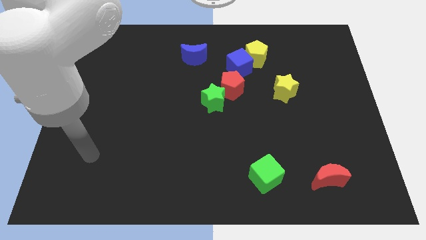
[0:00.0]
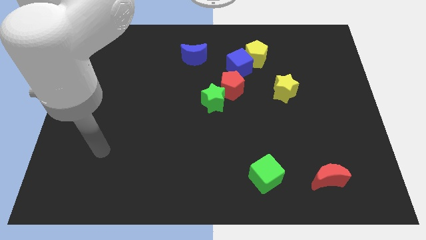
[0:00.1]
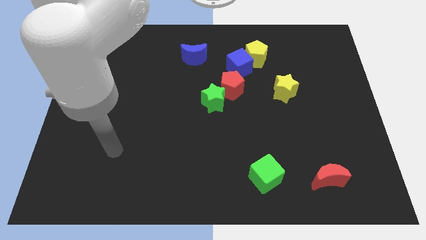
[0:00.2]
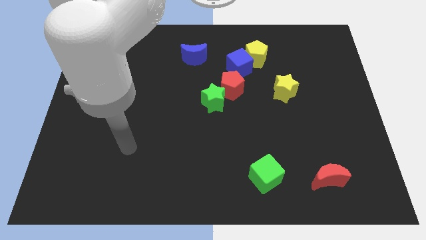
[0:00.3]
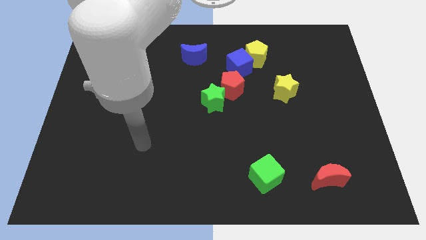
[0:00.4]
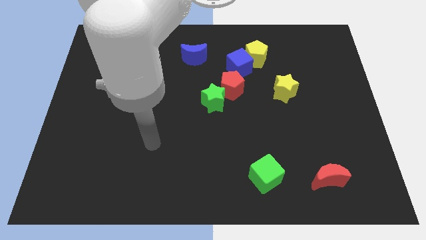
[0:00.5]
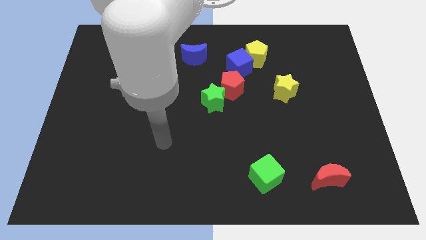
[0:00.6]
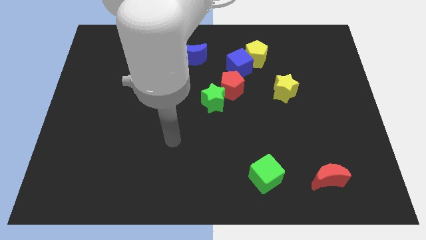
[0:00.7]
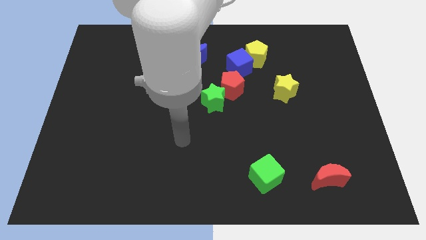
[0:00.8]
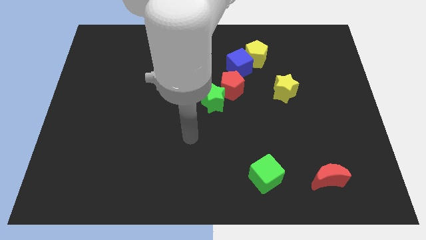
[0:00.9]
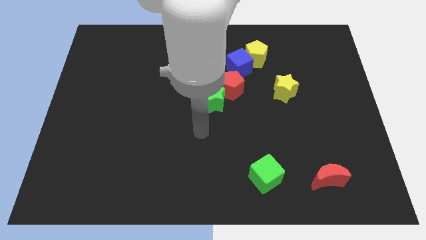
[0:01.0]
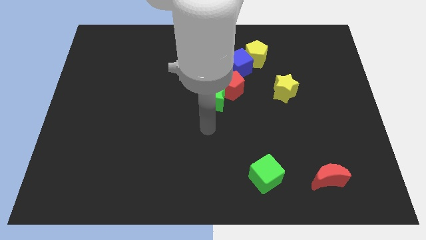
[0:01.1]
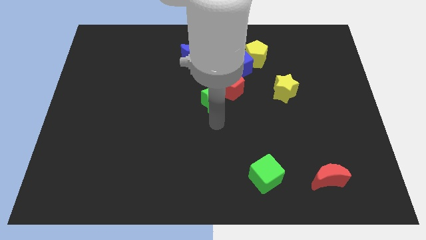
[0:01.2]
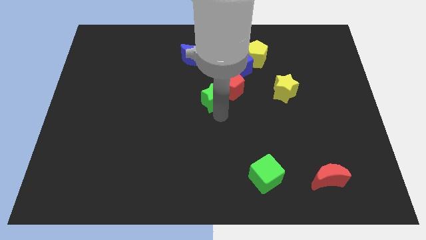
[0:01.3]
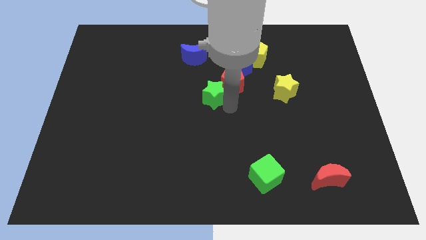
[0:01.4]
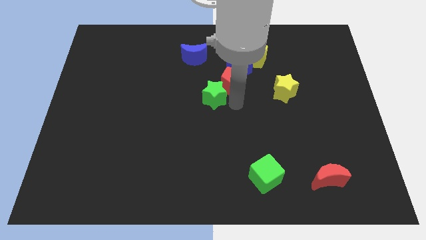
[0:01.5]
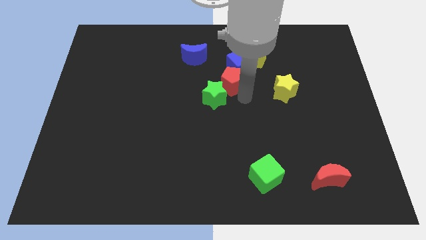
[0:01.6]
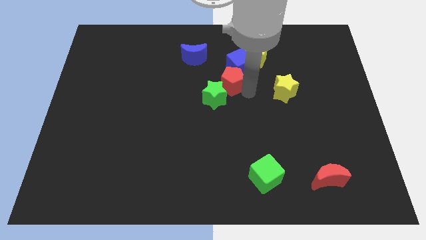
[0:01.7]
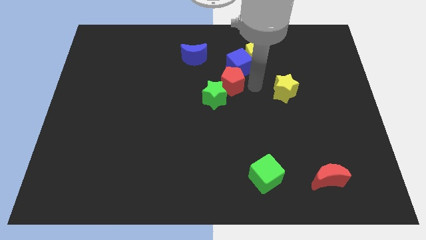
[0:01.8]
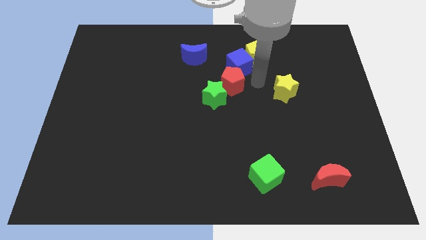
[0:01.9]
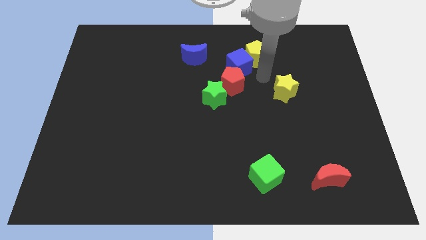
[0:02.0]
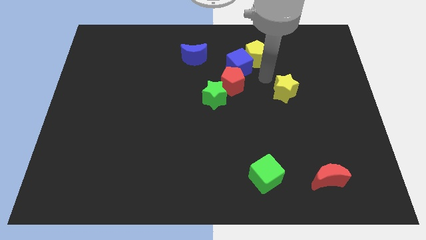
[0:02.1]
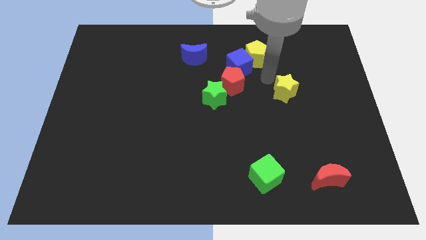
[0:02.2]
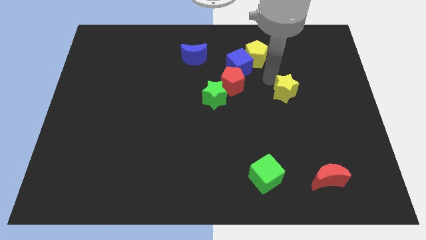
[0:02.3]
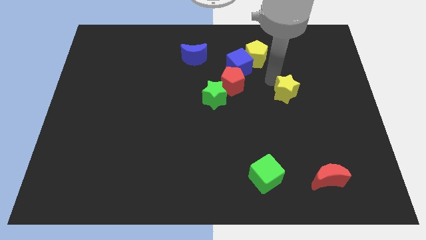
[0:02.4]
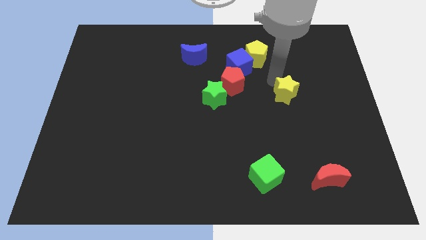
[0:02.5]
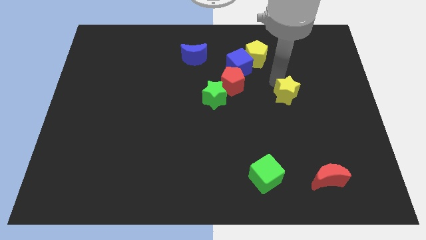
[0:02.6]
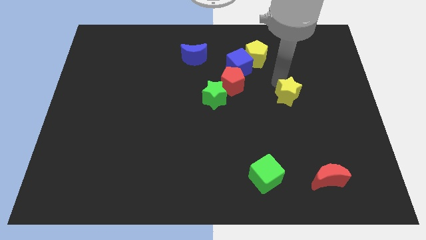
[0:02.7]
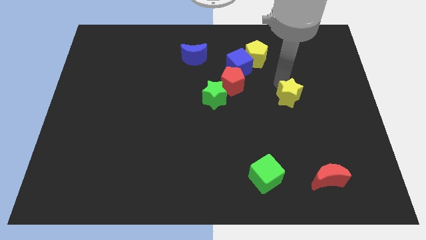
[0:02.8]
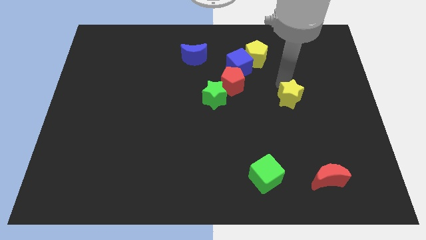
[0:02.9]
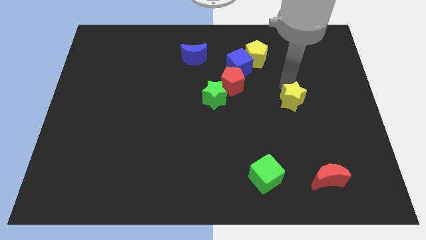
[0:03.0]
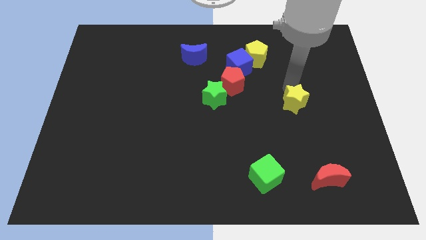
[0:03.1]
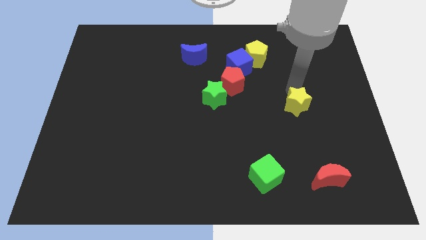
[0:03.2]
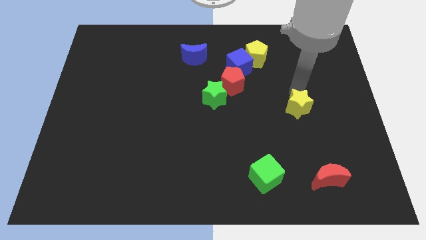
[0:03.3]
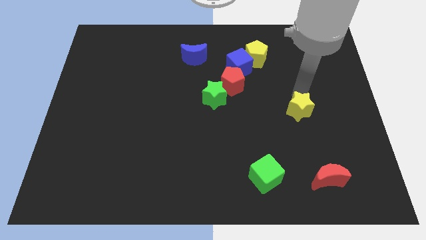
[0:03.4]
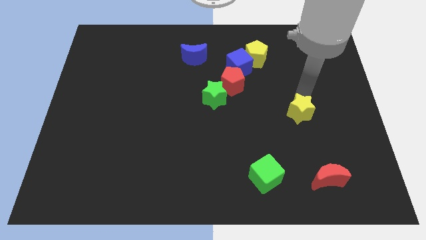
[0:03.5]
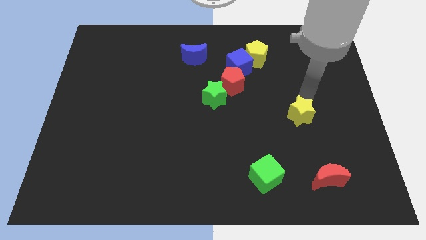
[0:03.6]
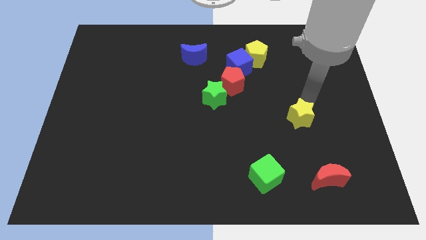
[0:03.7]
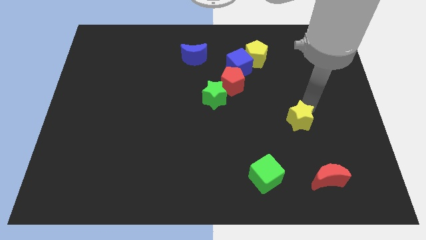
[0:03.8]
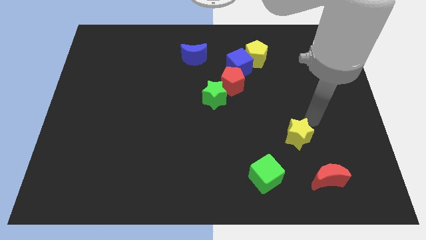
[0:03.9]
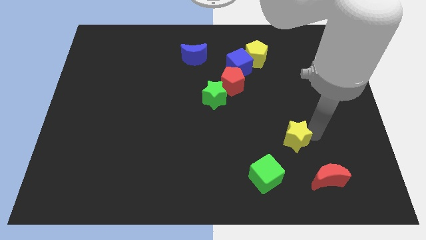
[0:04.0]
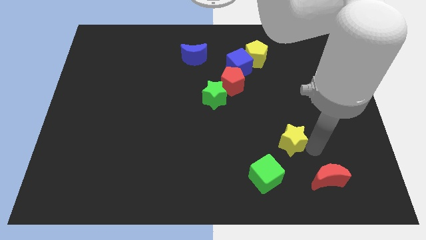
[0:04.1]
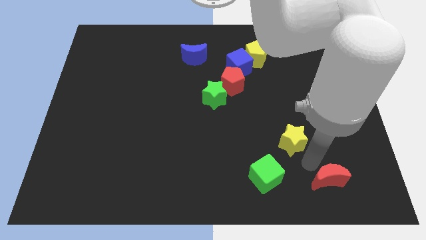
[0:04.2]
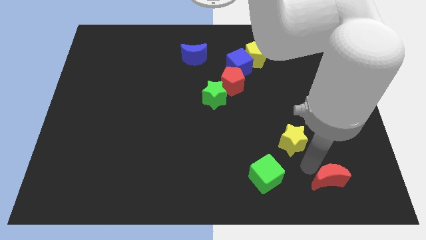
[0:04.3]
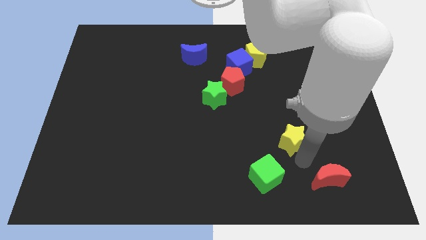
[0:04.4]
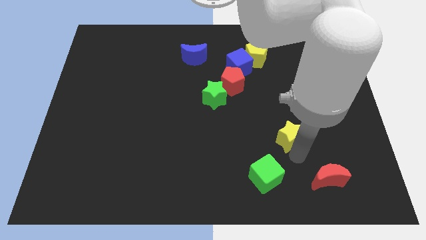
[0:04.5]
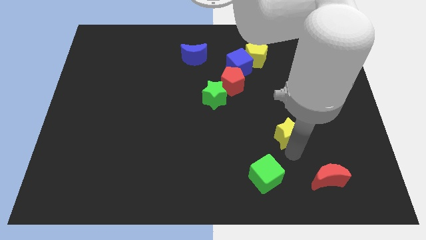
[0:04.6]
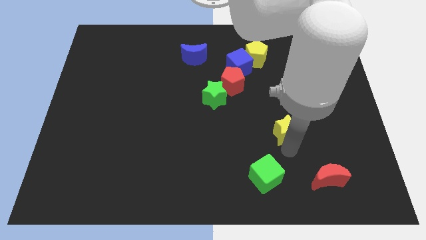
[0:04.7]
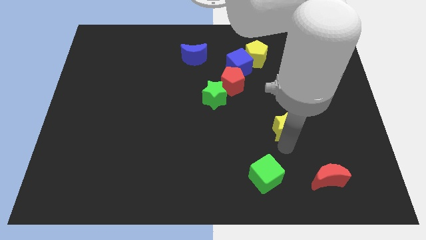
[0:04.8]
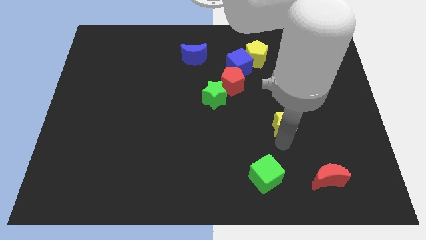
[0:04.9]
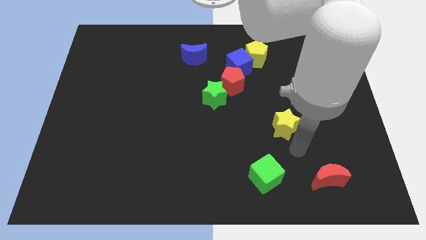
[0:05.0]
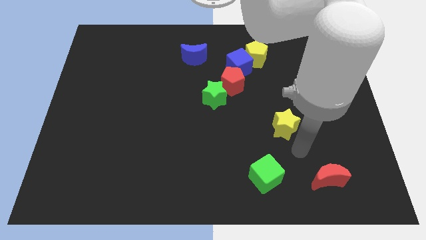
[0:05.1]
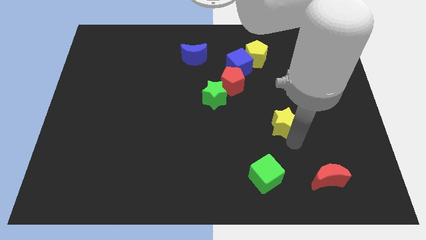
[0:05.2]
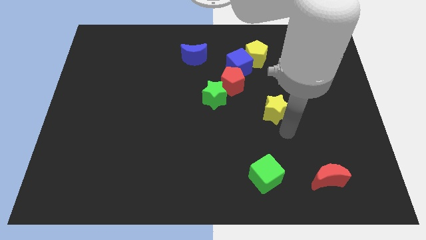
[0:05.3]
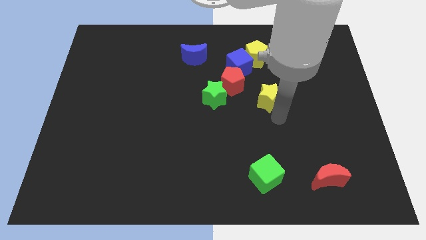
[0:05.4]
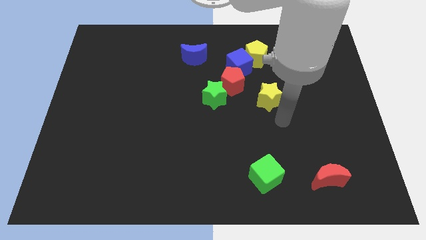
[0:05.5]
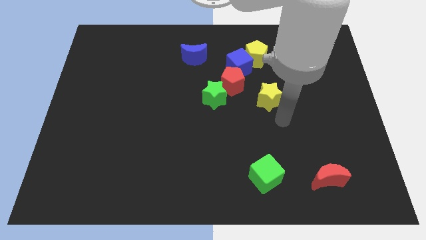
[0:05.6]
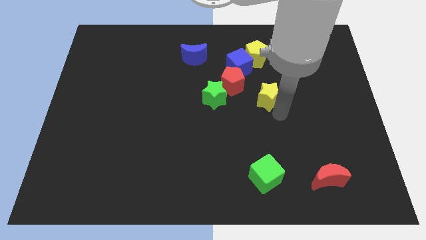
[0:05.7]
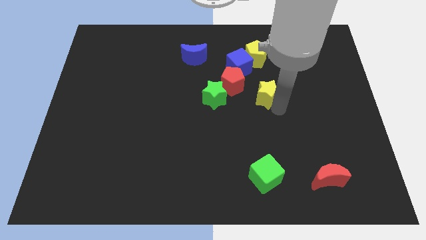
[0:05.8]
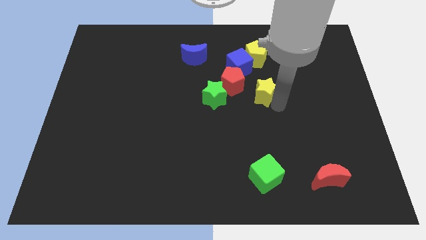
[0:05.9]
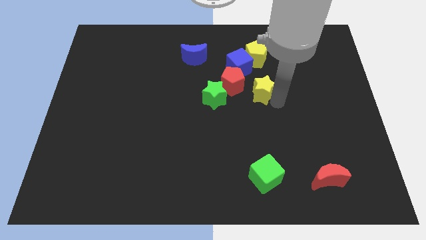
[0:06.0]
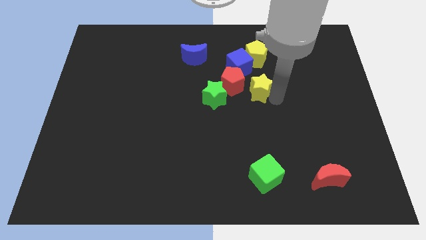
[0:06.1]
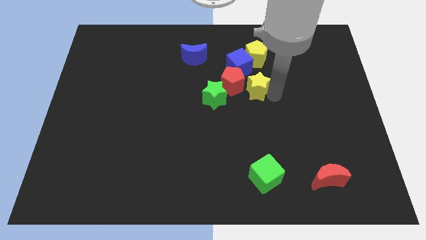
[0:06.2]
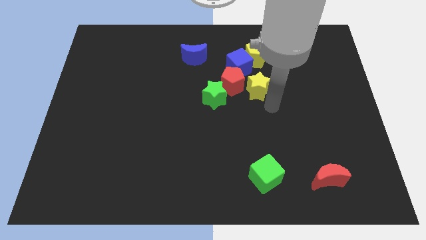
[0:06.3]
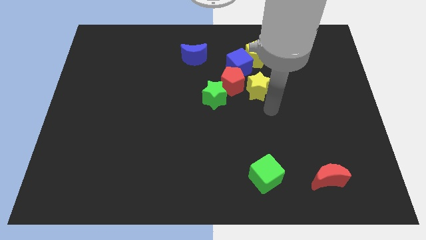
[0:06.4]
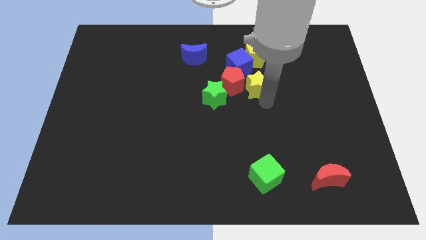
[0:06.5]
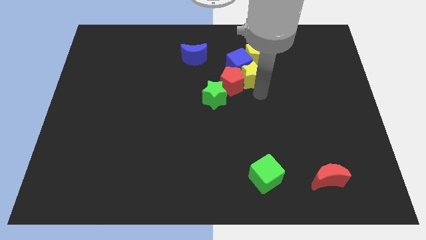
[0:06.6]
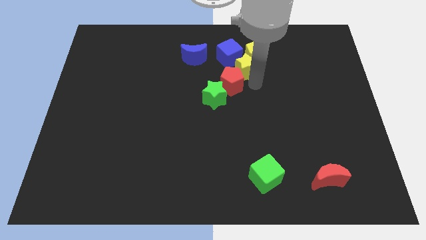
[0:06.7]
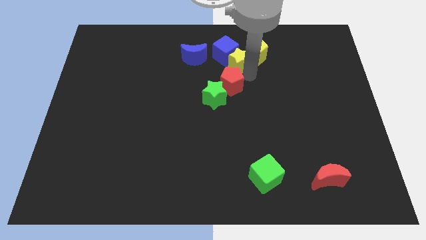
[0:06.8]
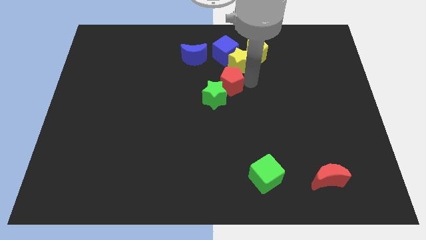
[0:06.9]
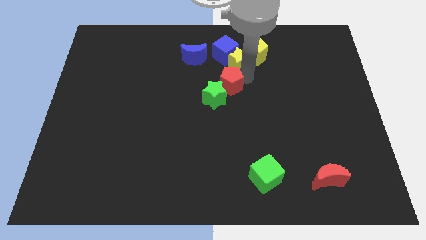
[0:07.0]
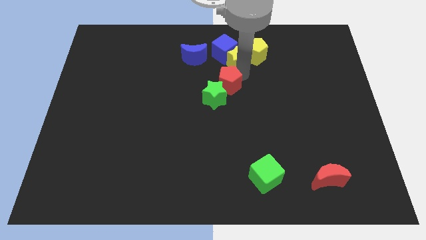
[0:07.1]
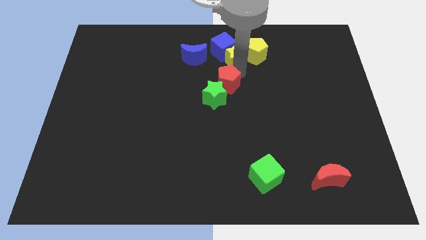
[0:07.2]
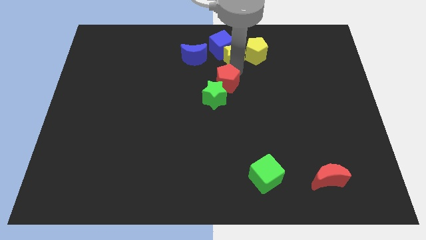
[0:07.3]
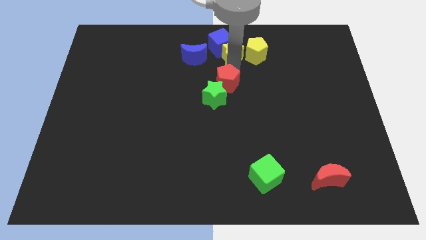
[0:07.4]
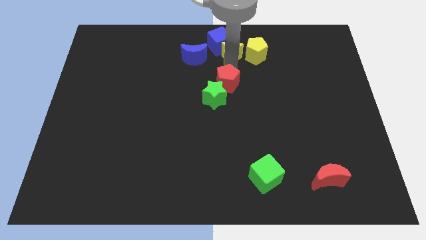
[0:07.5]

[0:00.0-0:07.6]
push the yellow star to the top
